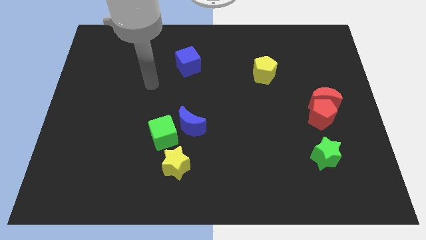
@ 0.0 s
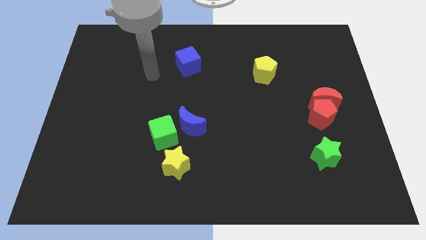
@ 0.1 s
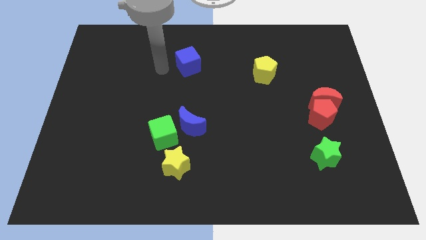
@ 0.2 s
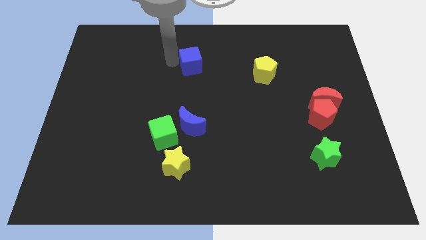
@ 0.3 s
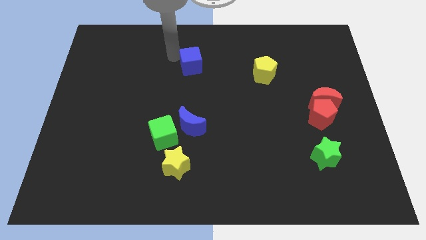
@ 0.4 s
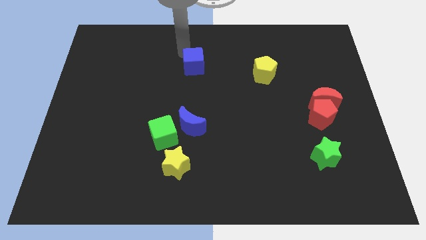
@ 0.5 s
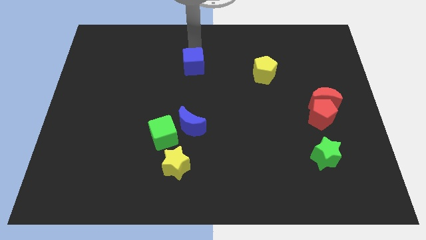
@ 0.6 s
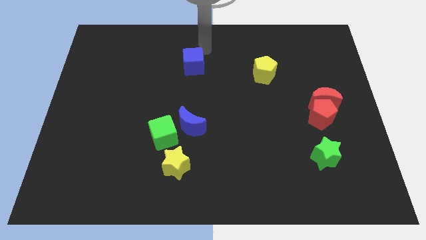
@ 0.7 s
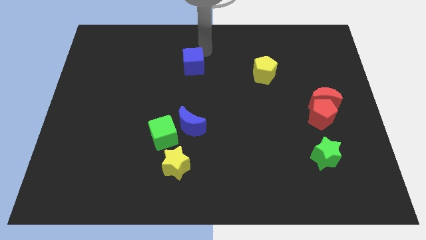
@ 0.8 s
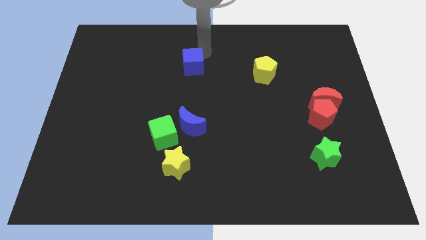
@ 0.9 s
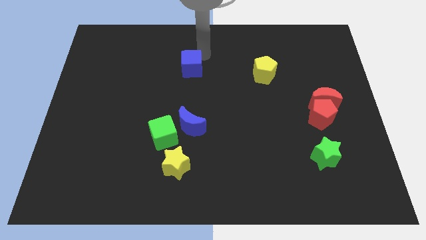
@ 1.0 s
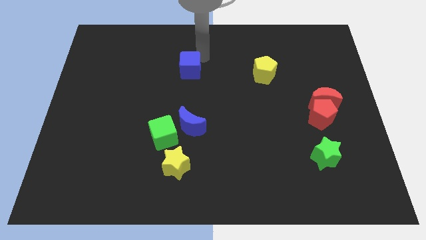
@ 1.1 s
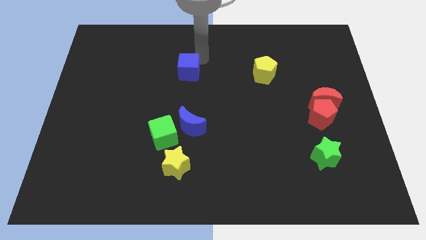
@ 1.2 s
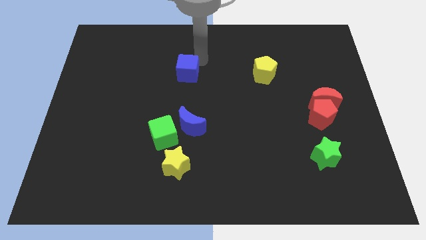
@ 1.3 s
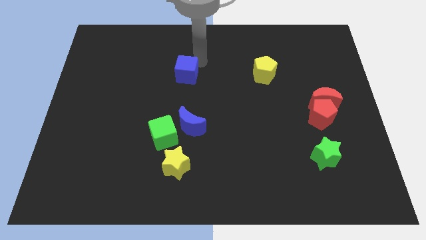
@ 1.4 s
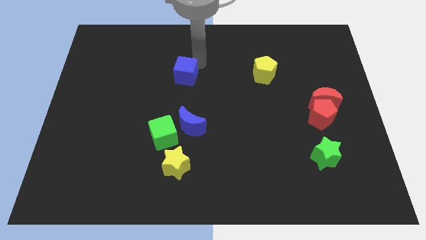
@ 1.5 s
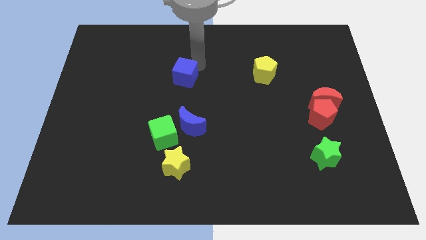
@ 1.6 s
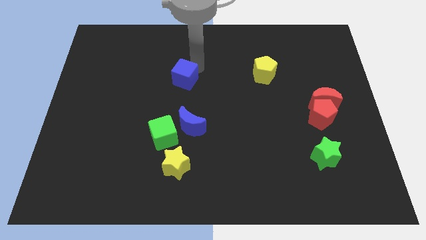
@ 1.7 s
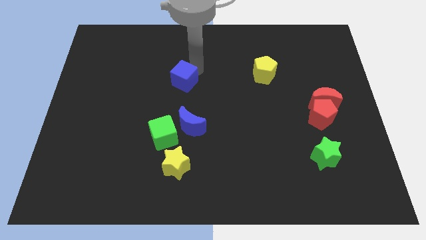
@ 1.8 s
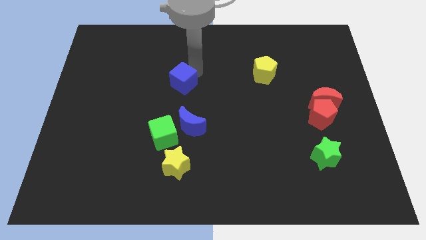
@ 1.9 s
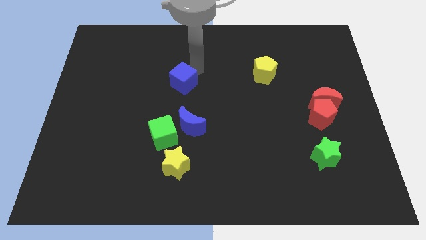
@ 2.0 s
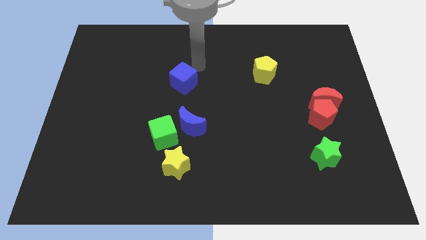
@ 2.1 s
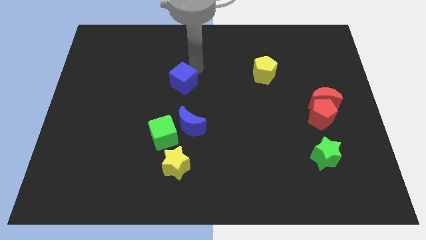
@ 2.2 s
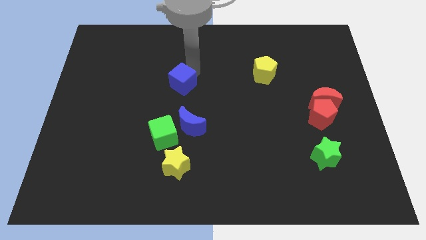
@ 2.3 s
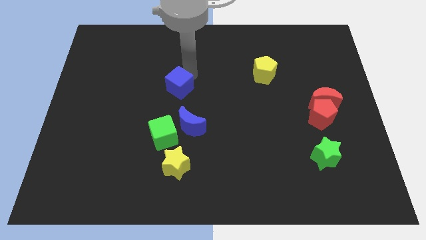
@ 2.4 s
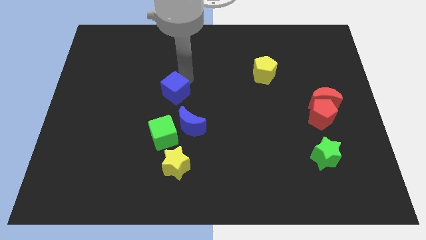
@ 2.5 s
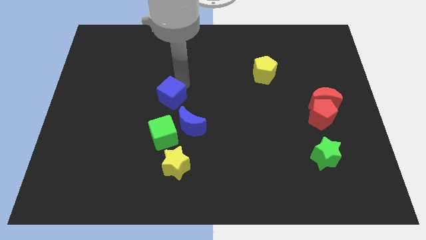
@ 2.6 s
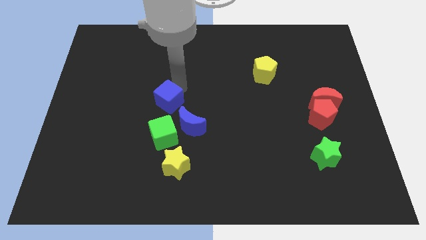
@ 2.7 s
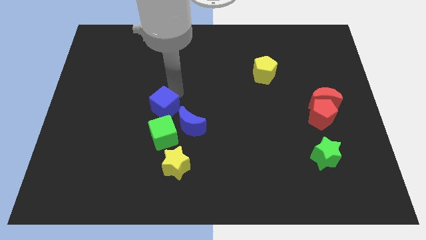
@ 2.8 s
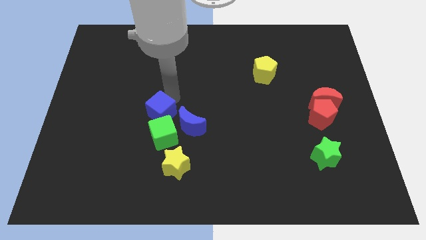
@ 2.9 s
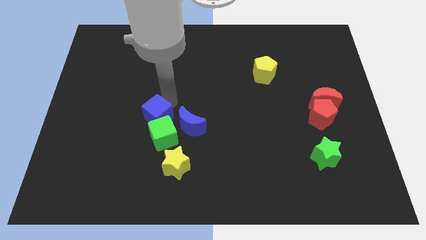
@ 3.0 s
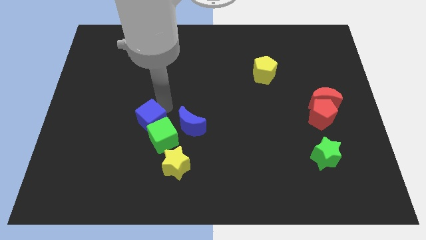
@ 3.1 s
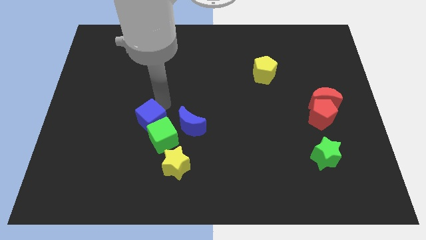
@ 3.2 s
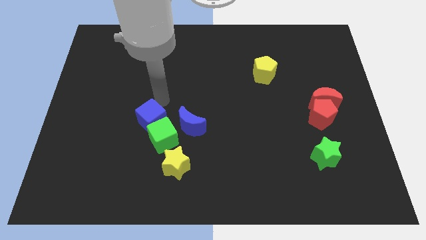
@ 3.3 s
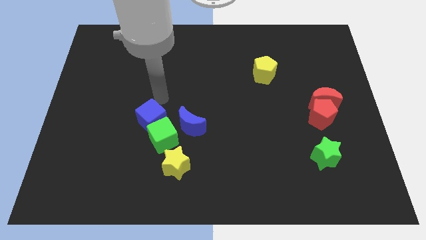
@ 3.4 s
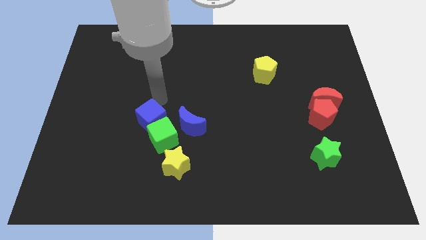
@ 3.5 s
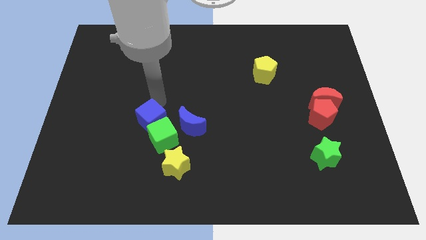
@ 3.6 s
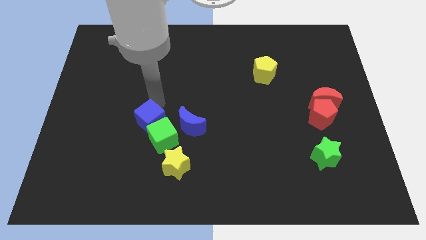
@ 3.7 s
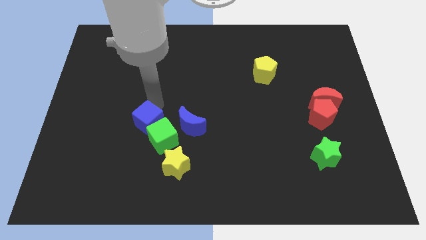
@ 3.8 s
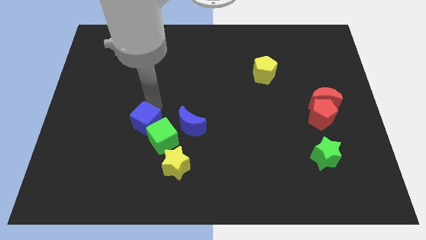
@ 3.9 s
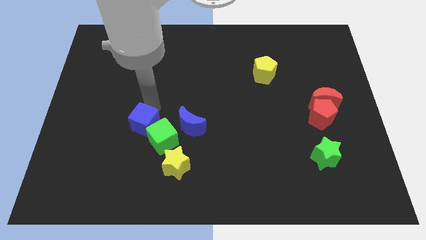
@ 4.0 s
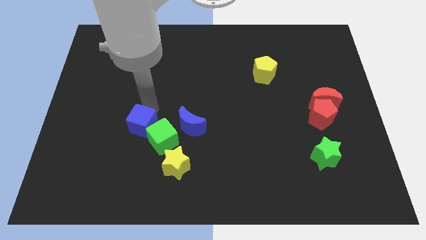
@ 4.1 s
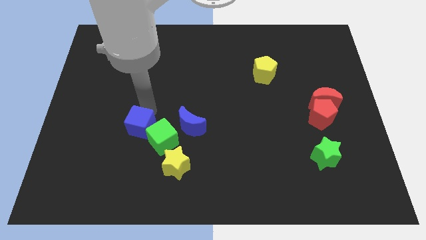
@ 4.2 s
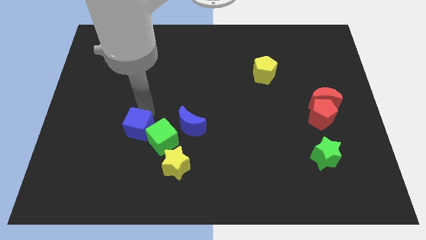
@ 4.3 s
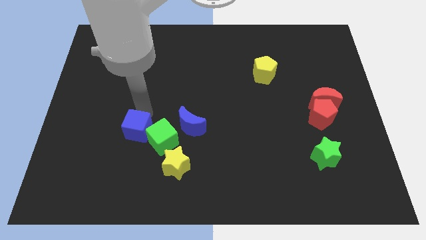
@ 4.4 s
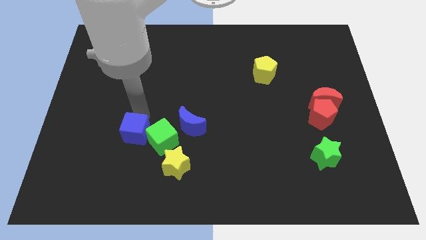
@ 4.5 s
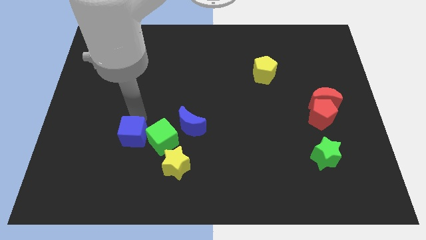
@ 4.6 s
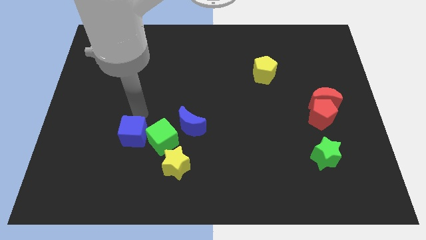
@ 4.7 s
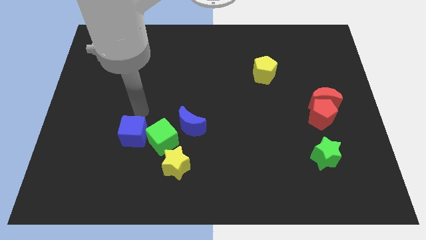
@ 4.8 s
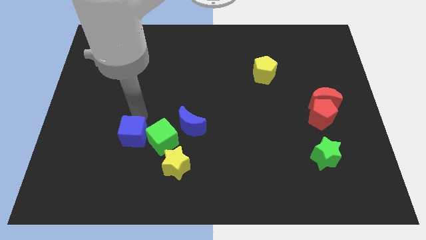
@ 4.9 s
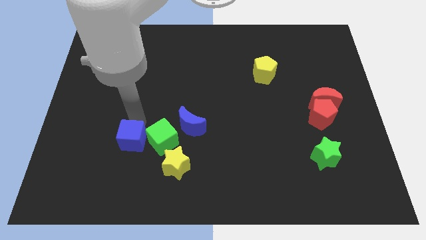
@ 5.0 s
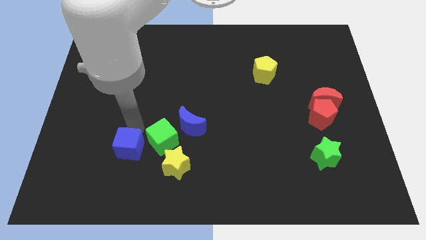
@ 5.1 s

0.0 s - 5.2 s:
move the blue cube to the left side of the yellow star

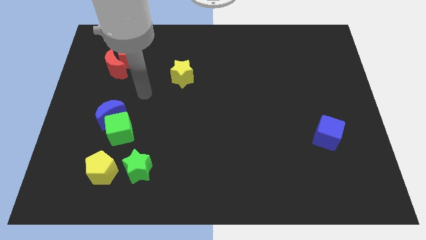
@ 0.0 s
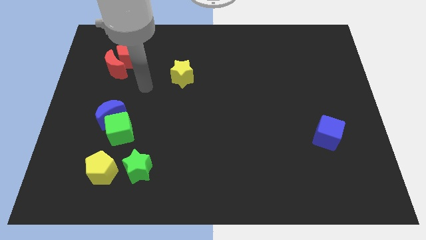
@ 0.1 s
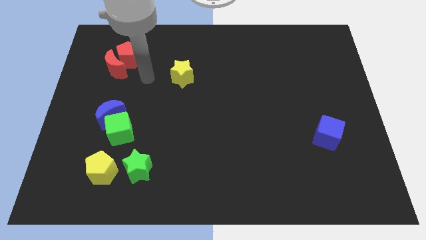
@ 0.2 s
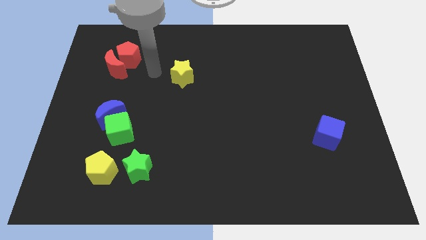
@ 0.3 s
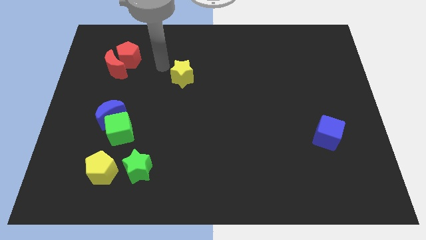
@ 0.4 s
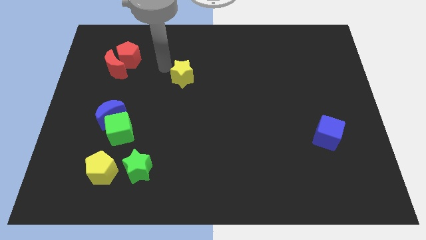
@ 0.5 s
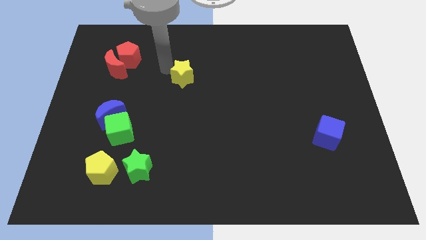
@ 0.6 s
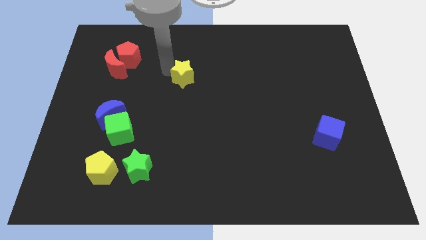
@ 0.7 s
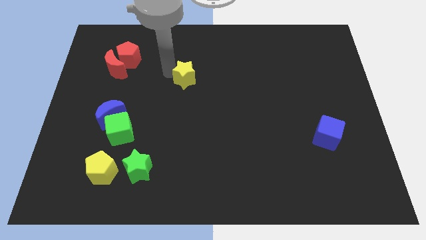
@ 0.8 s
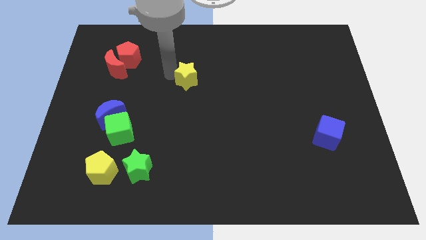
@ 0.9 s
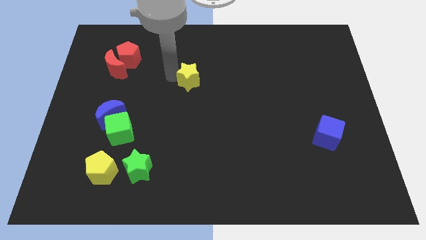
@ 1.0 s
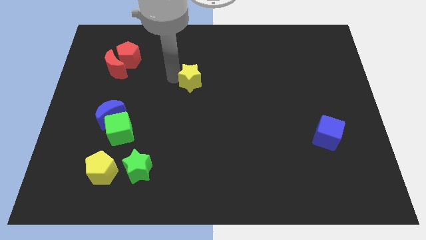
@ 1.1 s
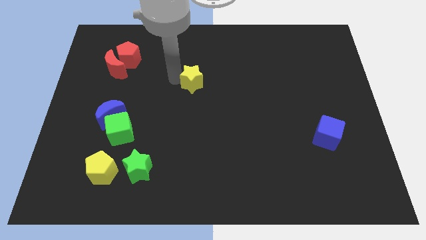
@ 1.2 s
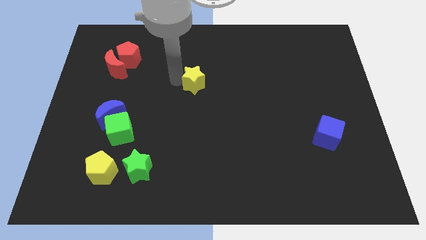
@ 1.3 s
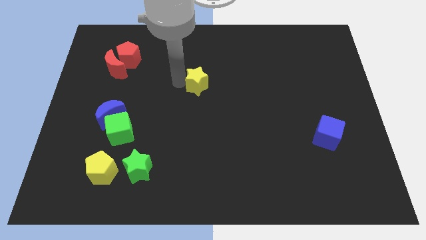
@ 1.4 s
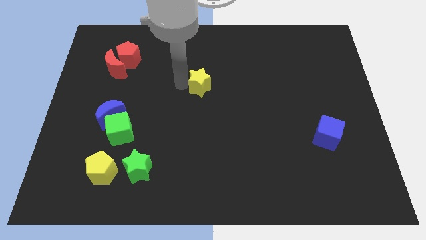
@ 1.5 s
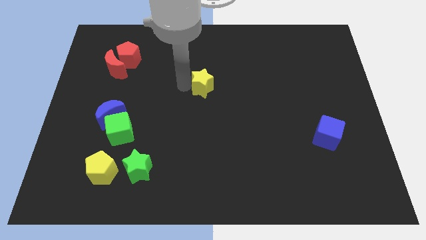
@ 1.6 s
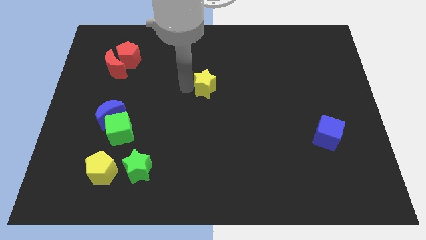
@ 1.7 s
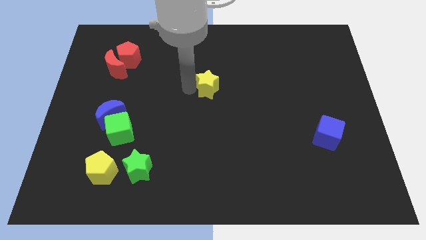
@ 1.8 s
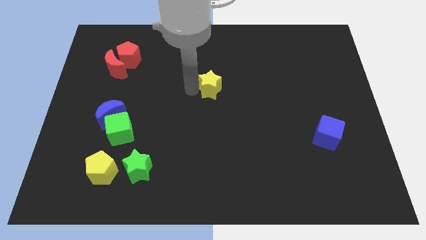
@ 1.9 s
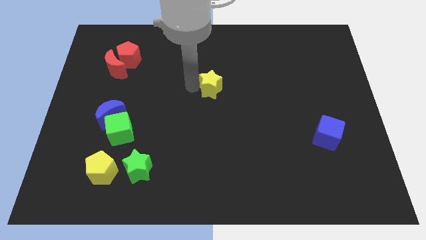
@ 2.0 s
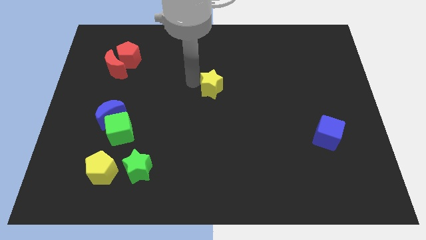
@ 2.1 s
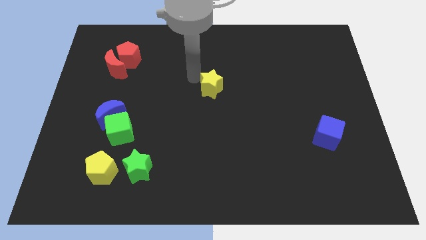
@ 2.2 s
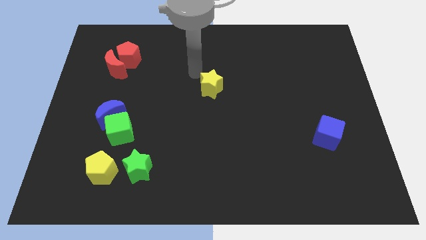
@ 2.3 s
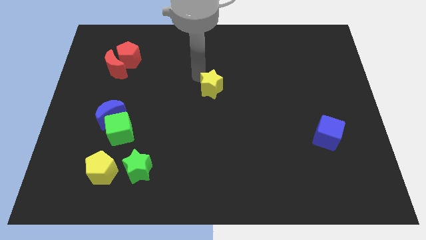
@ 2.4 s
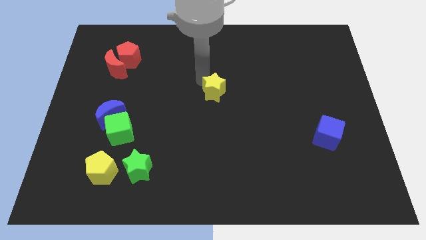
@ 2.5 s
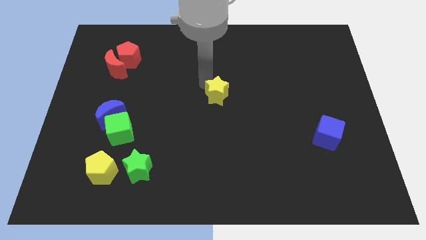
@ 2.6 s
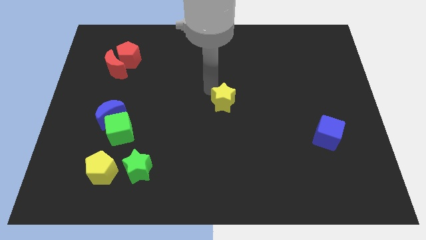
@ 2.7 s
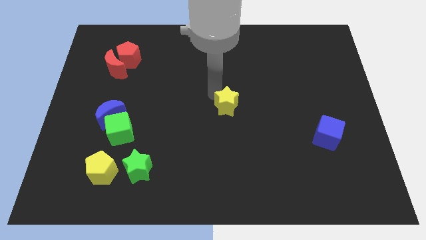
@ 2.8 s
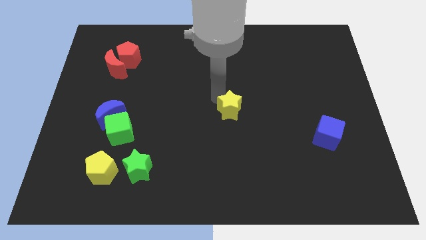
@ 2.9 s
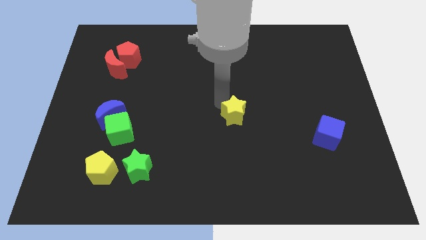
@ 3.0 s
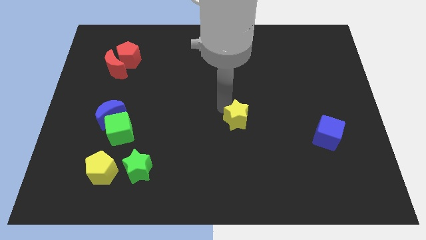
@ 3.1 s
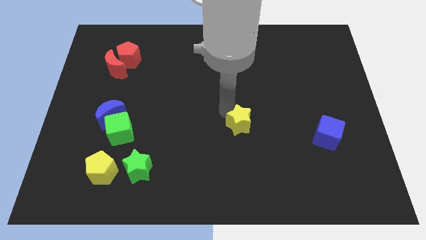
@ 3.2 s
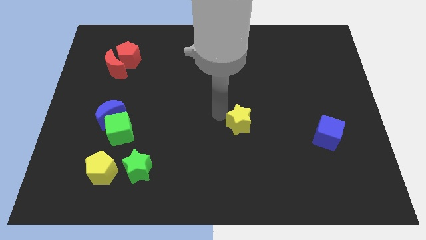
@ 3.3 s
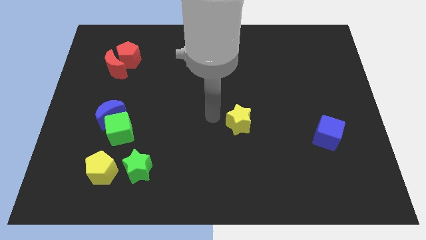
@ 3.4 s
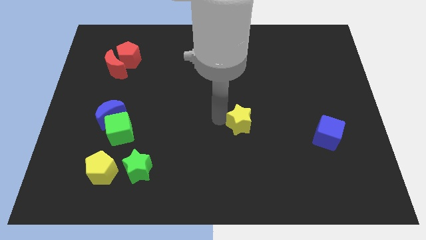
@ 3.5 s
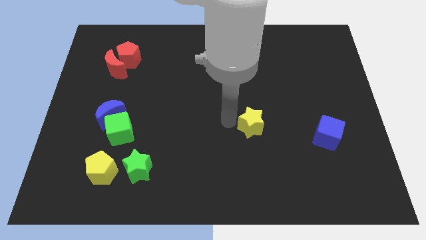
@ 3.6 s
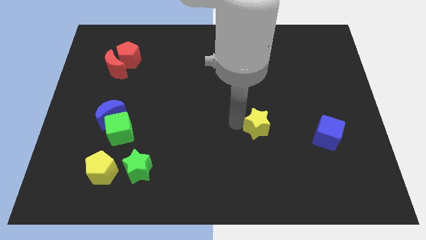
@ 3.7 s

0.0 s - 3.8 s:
put the yellow star to the left of the blue cube
